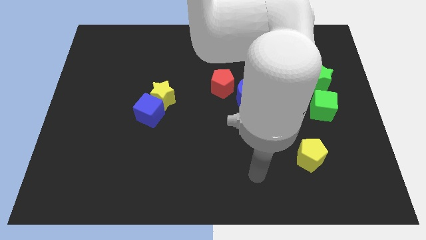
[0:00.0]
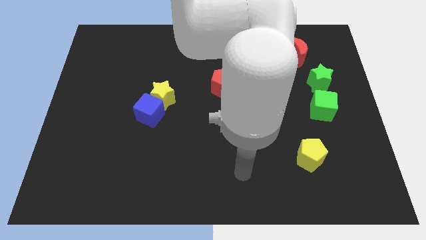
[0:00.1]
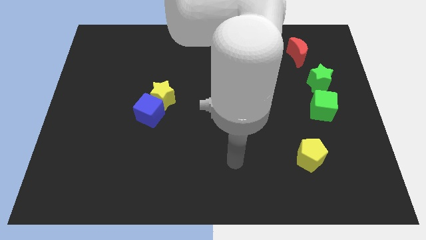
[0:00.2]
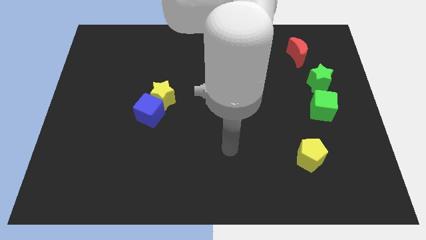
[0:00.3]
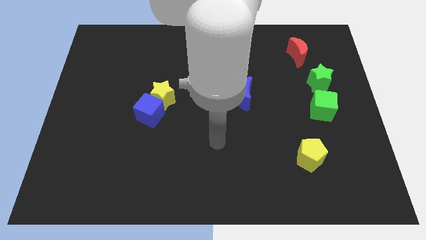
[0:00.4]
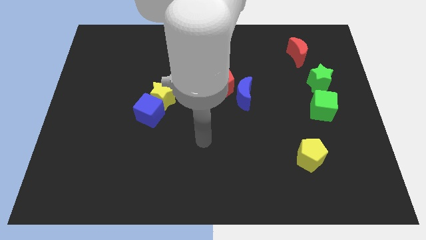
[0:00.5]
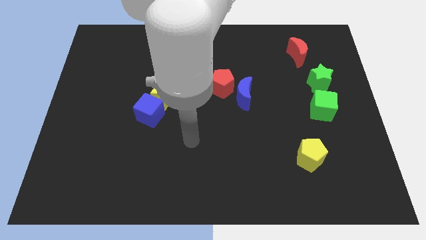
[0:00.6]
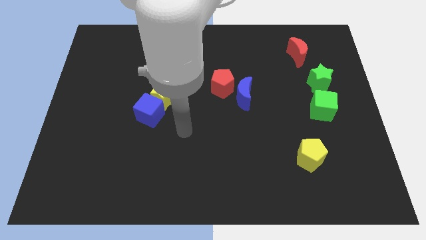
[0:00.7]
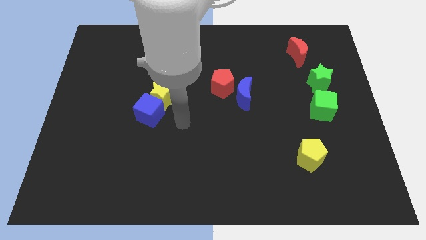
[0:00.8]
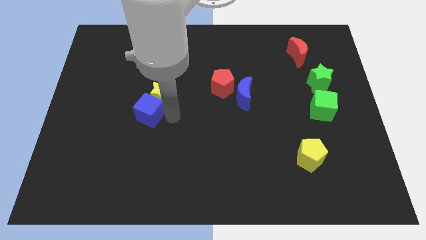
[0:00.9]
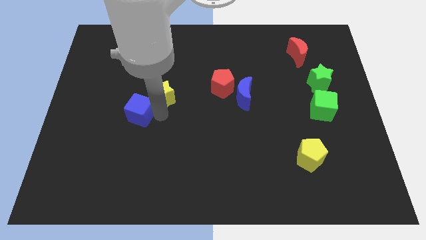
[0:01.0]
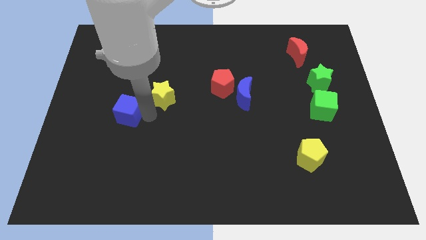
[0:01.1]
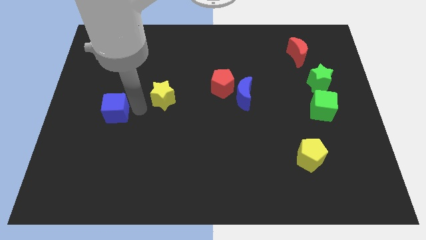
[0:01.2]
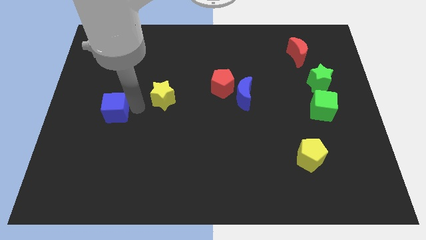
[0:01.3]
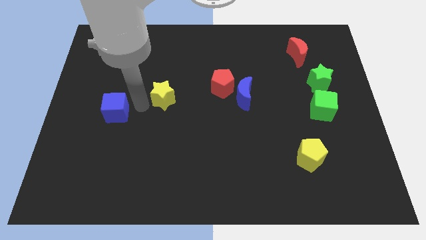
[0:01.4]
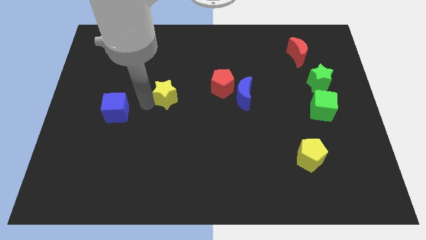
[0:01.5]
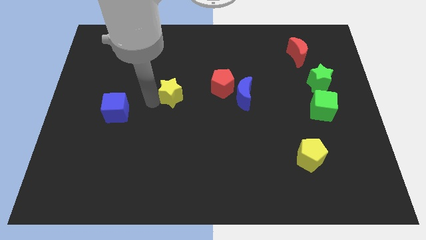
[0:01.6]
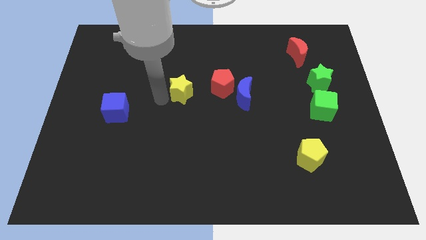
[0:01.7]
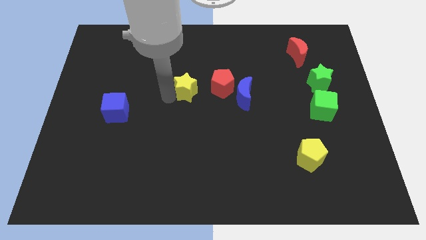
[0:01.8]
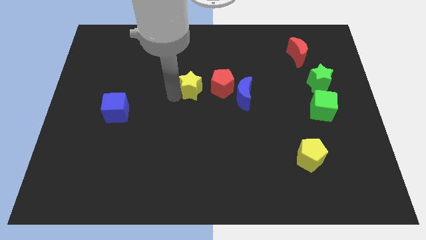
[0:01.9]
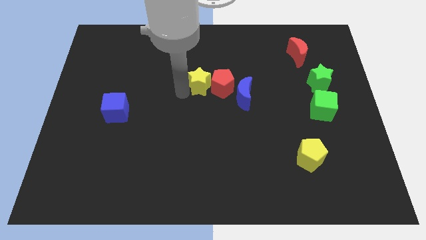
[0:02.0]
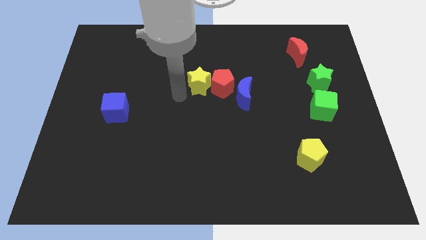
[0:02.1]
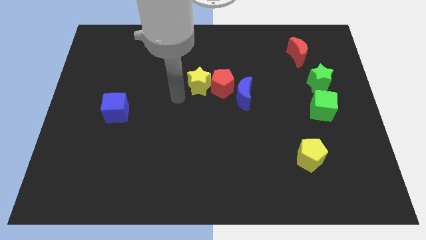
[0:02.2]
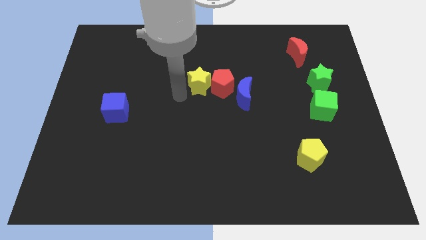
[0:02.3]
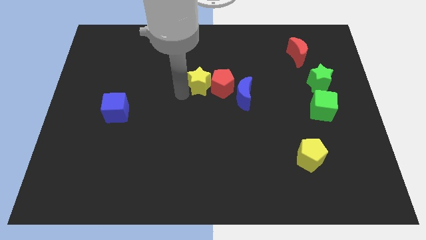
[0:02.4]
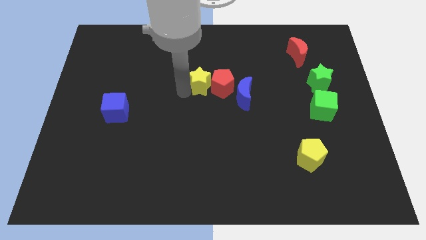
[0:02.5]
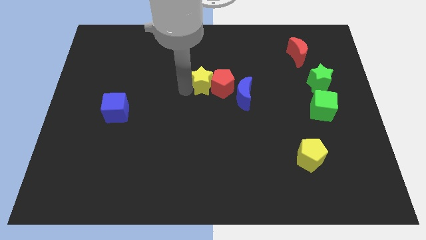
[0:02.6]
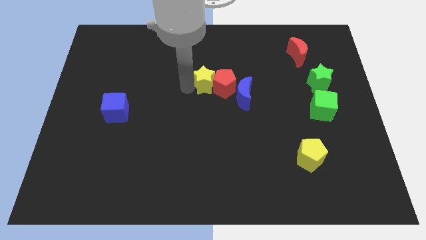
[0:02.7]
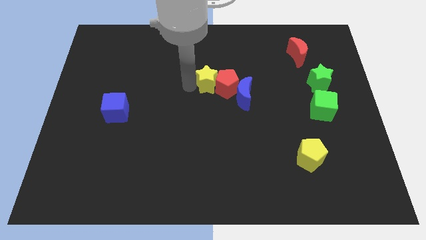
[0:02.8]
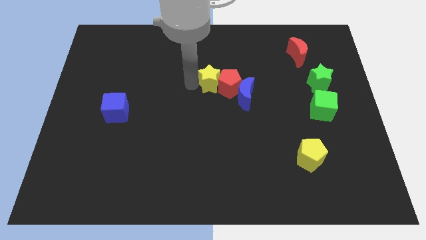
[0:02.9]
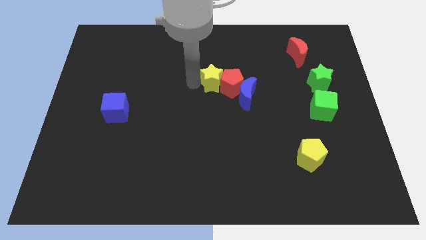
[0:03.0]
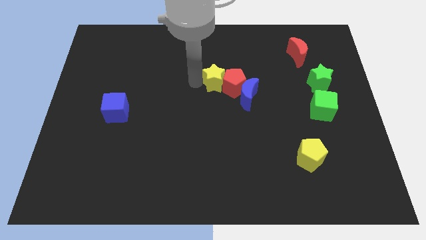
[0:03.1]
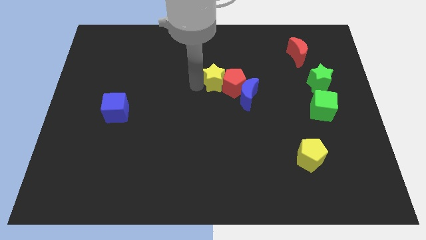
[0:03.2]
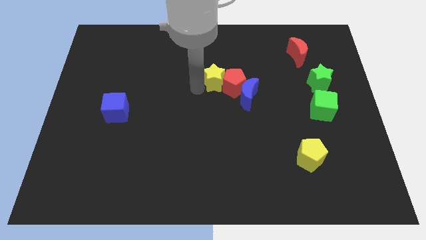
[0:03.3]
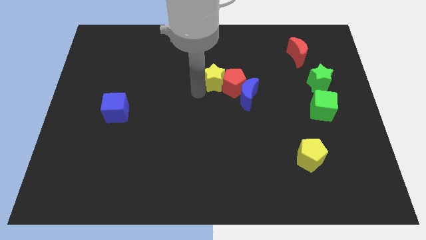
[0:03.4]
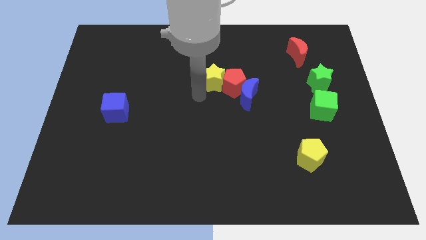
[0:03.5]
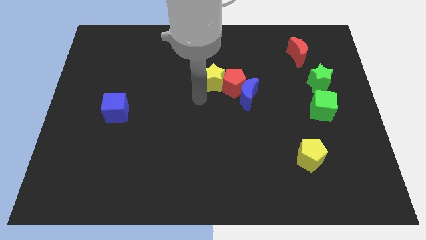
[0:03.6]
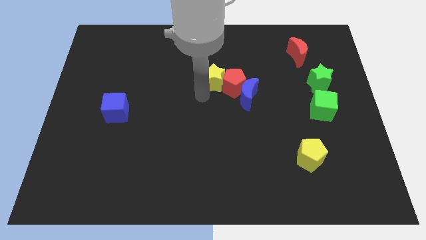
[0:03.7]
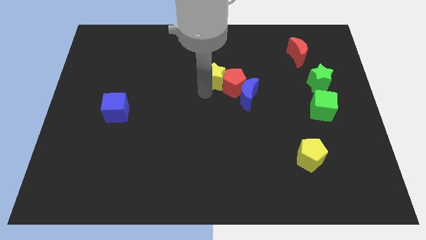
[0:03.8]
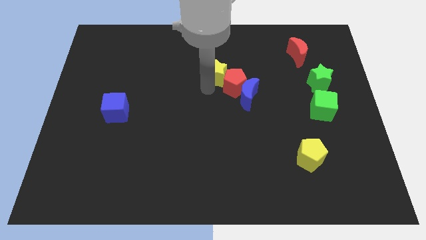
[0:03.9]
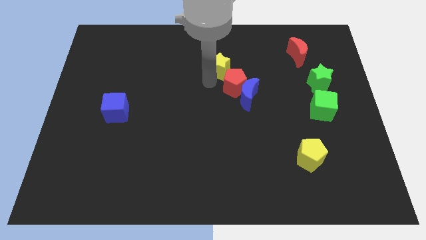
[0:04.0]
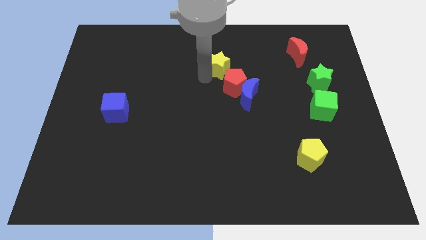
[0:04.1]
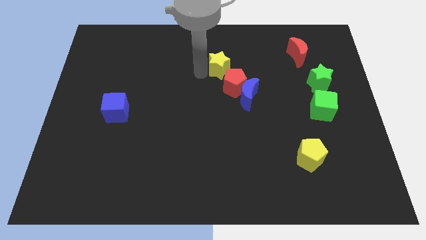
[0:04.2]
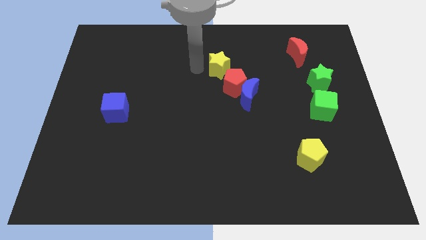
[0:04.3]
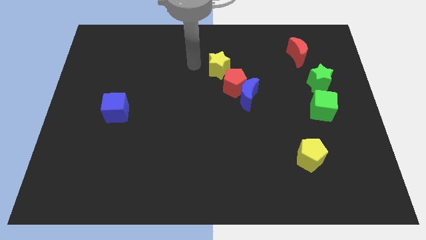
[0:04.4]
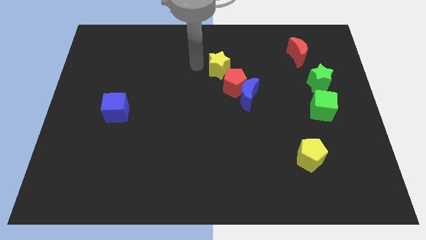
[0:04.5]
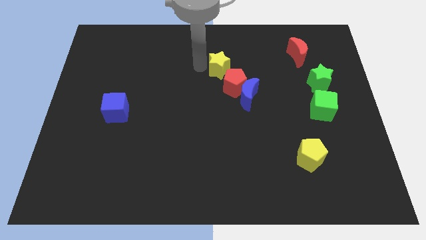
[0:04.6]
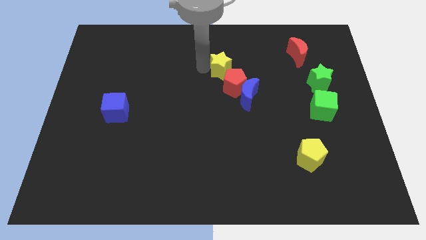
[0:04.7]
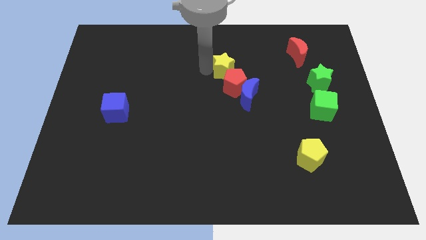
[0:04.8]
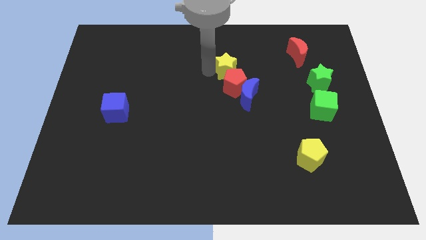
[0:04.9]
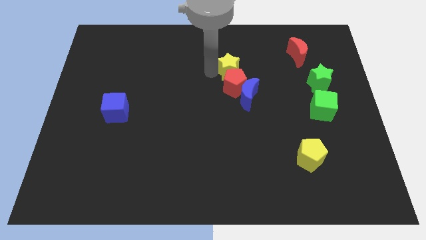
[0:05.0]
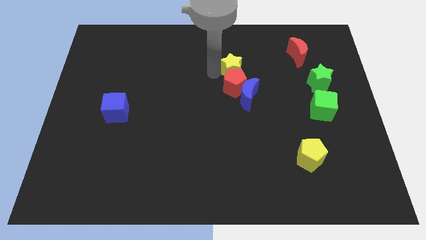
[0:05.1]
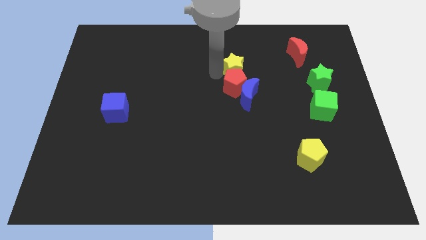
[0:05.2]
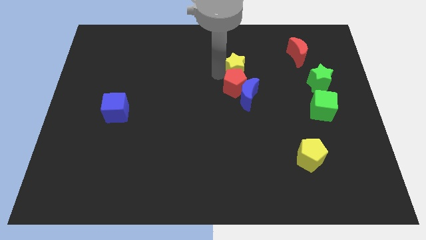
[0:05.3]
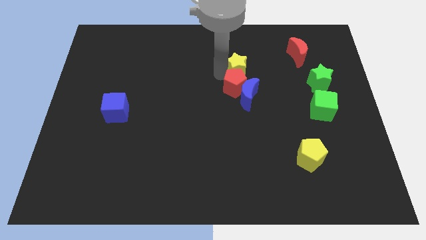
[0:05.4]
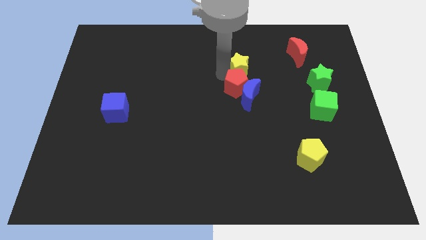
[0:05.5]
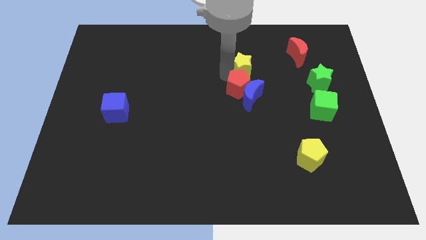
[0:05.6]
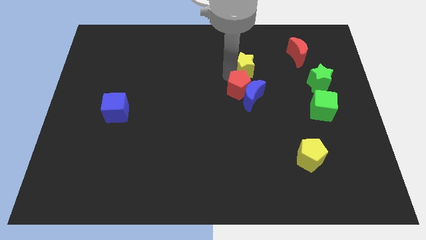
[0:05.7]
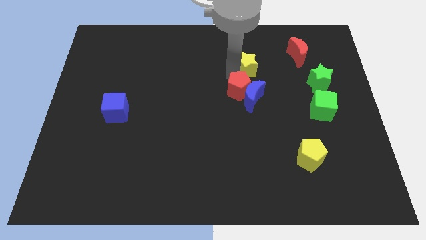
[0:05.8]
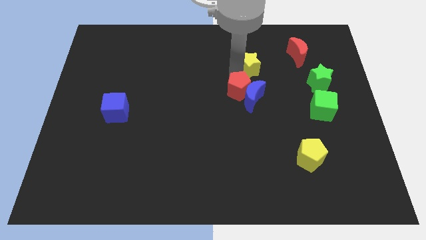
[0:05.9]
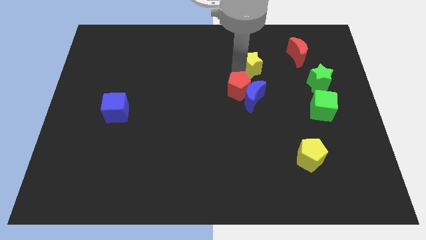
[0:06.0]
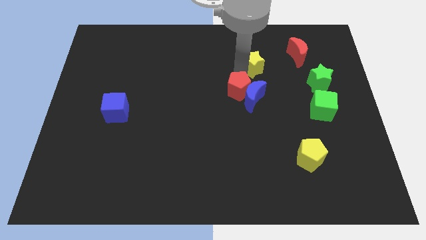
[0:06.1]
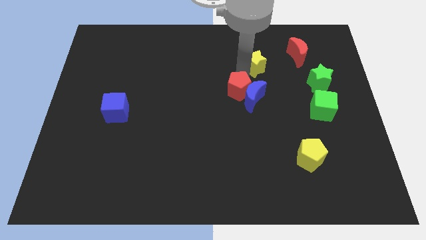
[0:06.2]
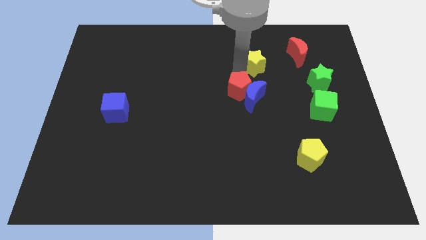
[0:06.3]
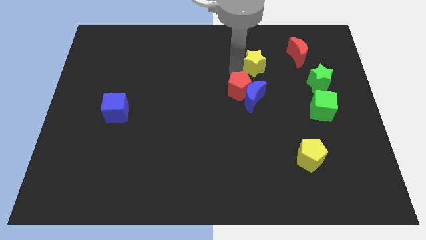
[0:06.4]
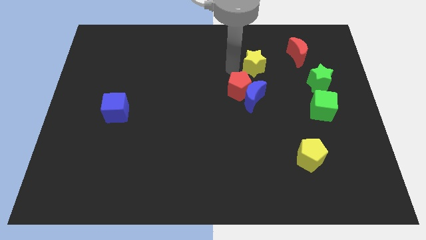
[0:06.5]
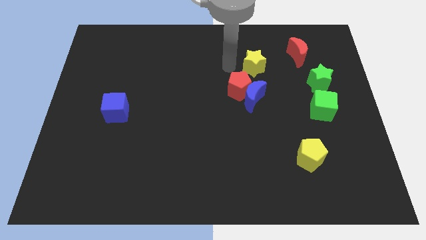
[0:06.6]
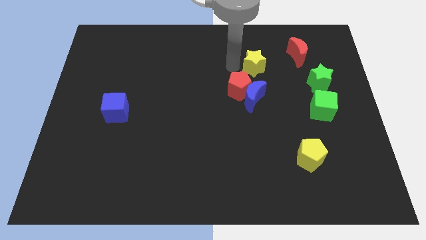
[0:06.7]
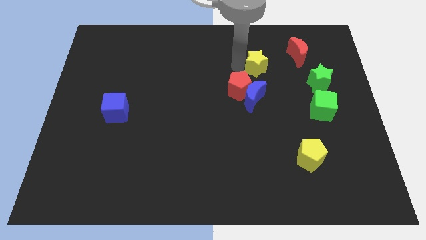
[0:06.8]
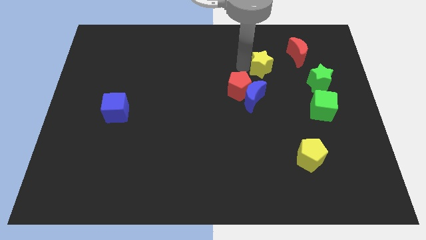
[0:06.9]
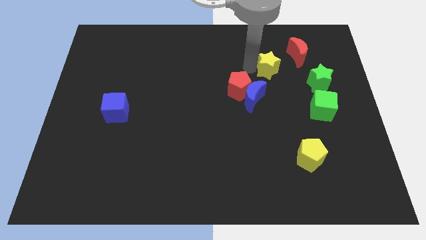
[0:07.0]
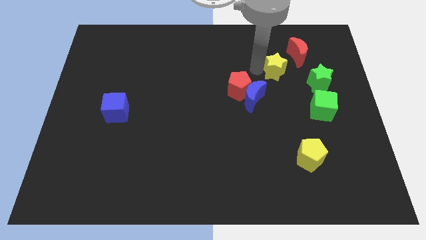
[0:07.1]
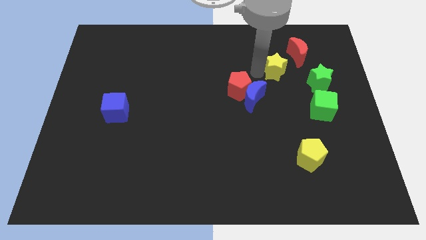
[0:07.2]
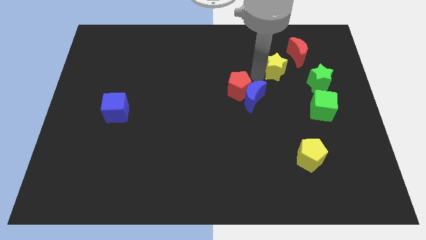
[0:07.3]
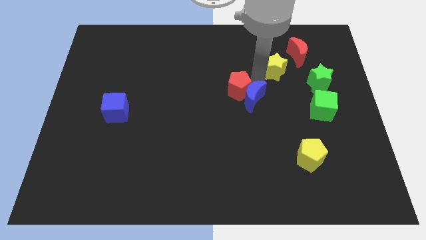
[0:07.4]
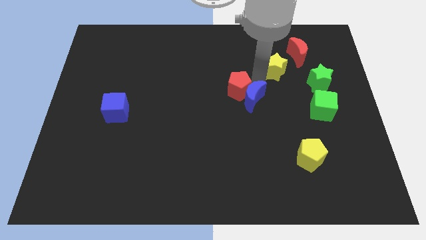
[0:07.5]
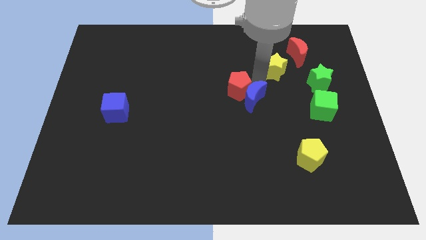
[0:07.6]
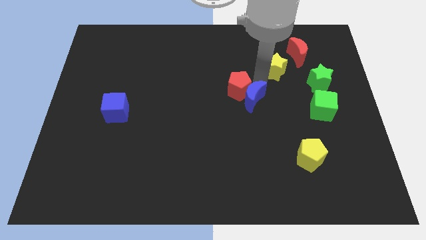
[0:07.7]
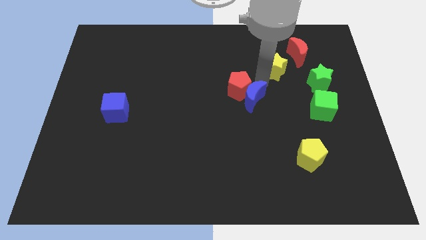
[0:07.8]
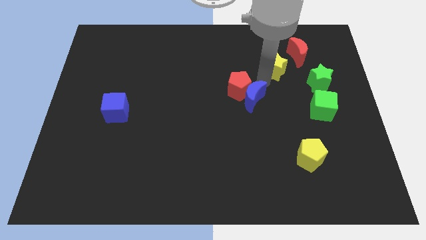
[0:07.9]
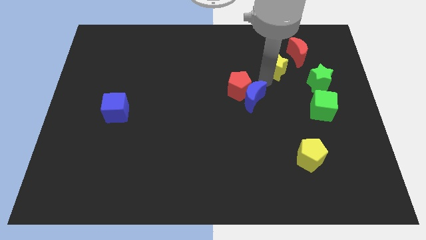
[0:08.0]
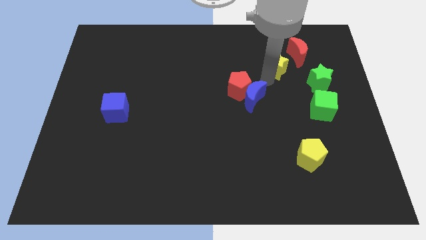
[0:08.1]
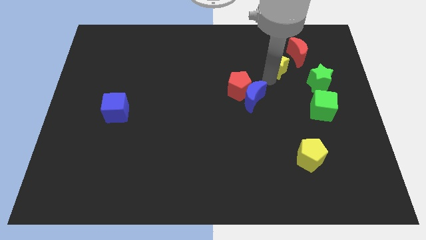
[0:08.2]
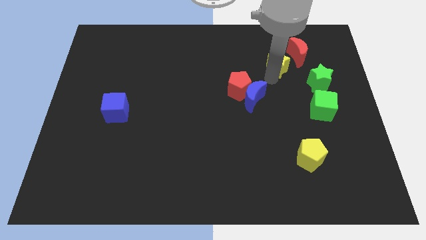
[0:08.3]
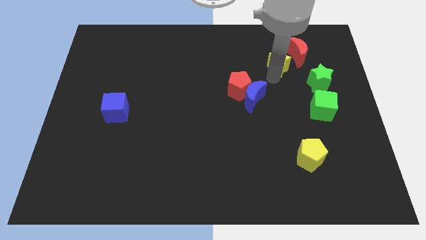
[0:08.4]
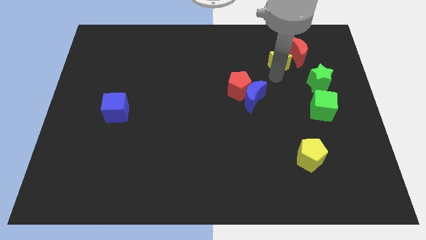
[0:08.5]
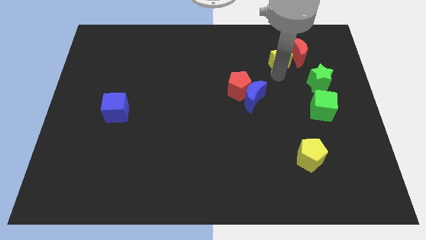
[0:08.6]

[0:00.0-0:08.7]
put the yellow star next to the red moon
